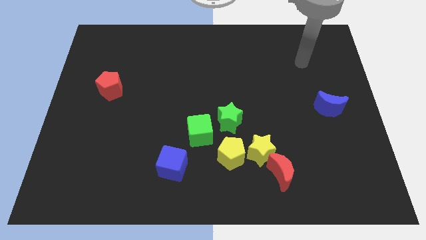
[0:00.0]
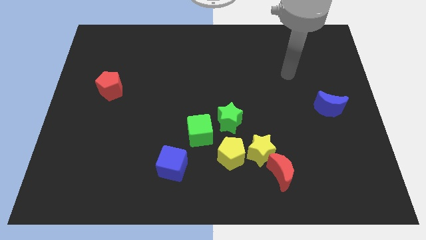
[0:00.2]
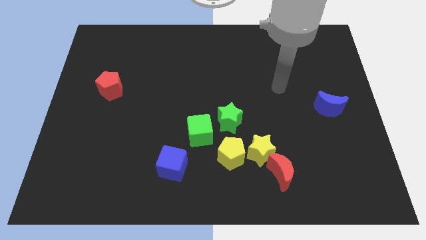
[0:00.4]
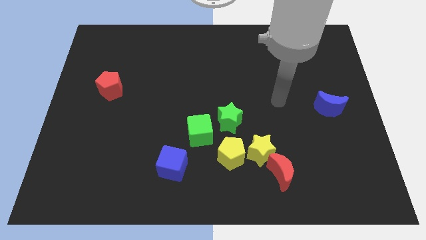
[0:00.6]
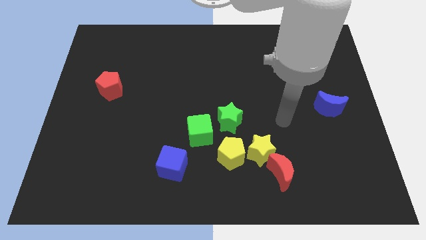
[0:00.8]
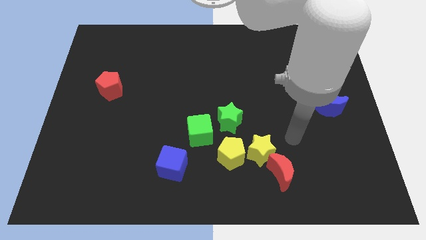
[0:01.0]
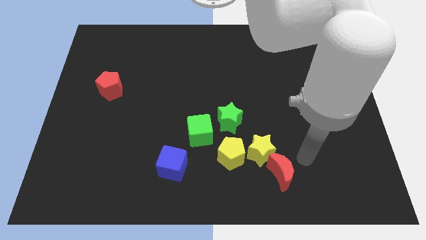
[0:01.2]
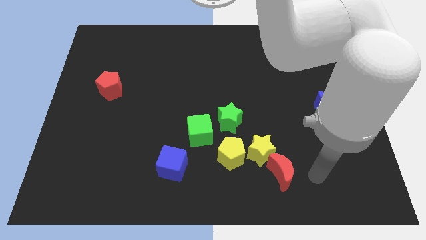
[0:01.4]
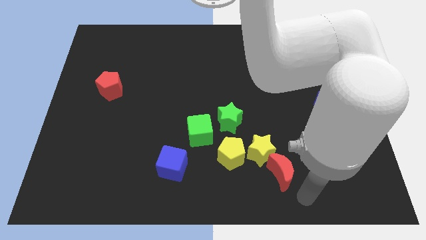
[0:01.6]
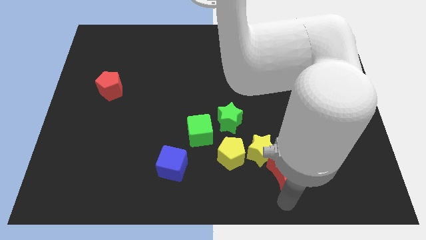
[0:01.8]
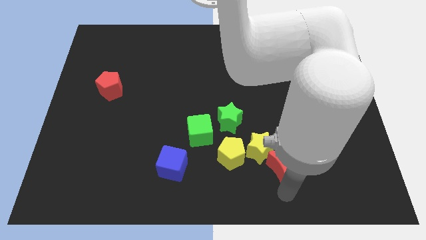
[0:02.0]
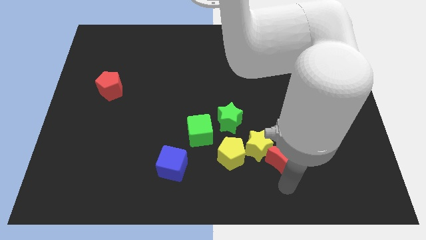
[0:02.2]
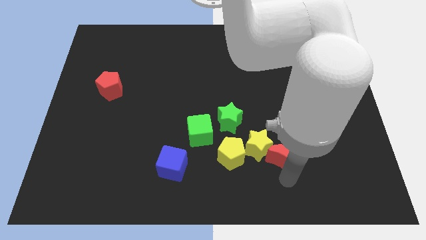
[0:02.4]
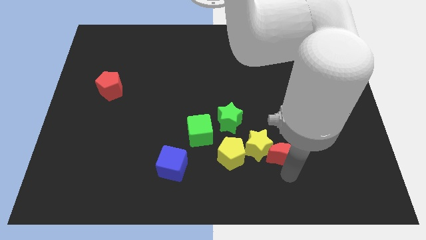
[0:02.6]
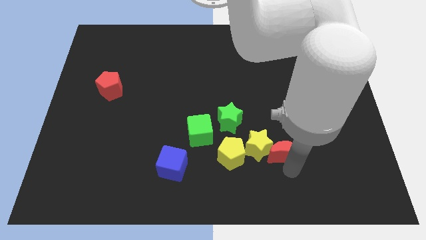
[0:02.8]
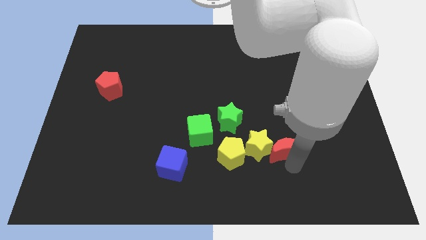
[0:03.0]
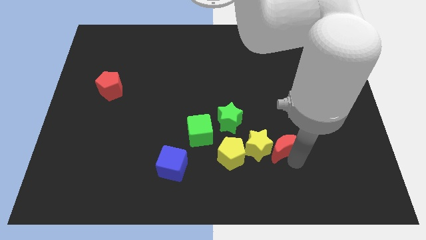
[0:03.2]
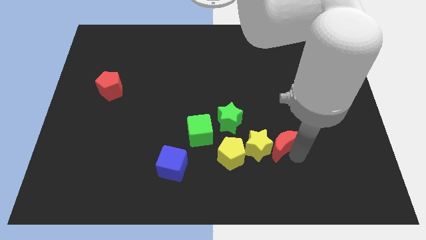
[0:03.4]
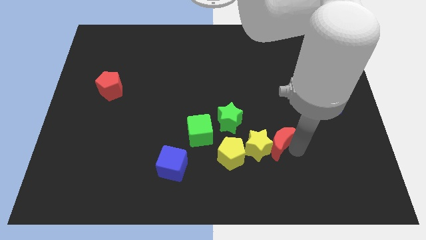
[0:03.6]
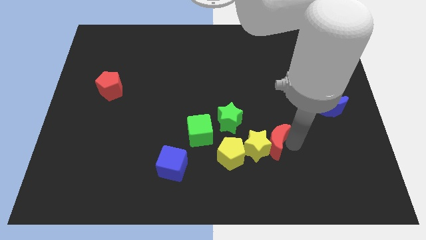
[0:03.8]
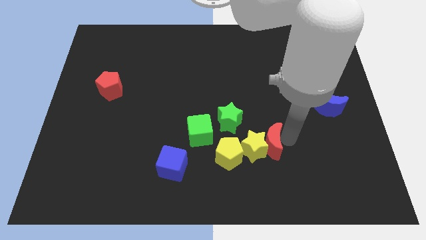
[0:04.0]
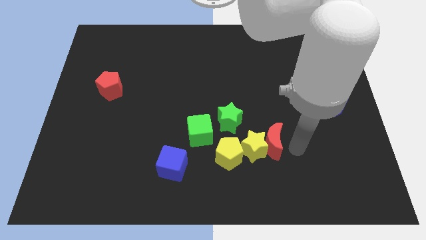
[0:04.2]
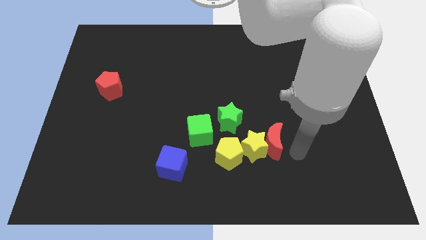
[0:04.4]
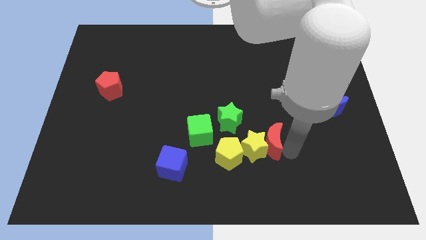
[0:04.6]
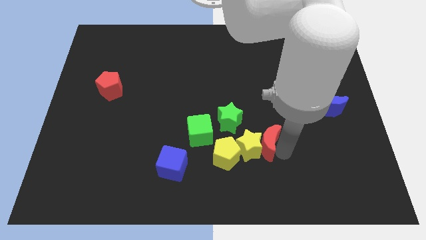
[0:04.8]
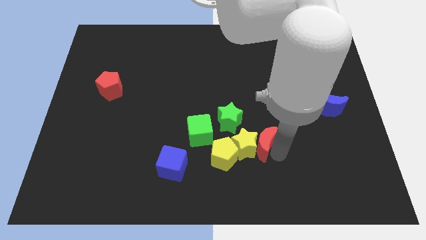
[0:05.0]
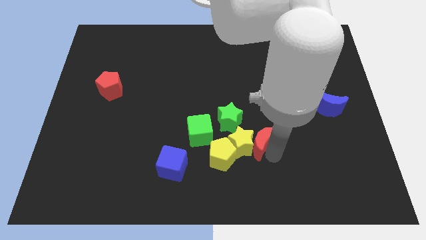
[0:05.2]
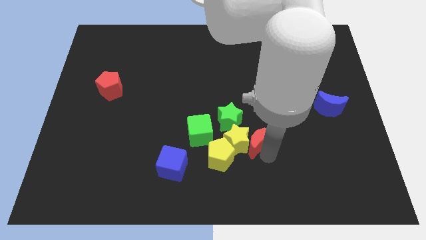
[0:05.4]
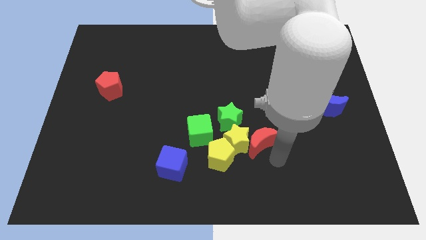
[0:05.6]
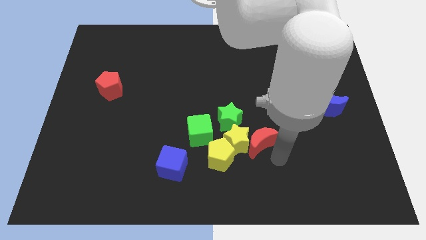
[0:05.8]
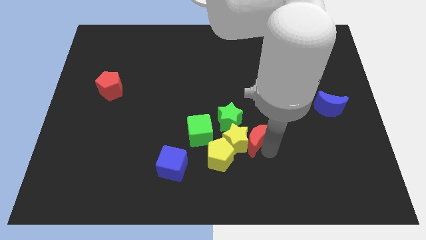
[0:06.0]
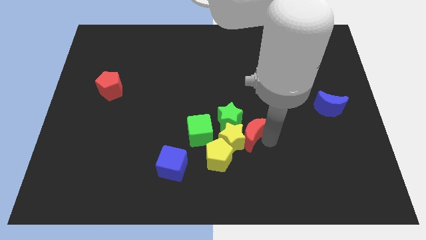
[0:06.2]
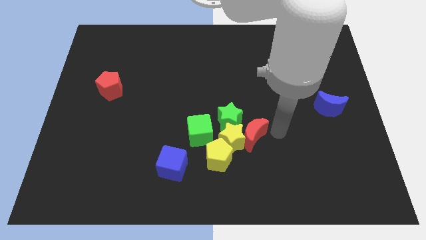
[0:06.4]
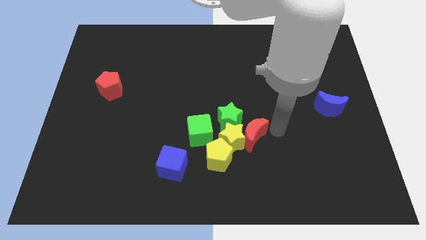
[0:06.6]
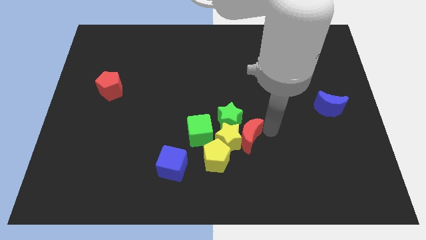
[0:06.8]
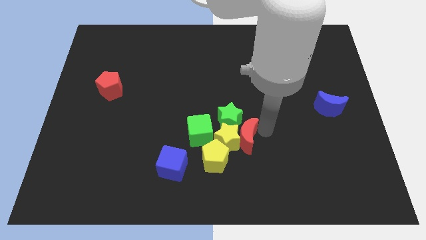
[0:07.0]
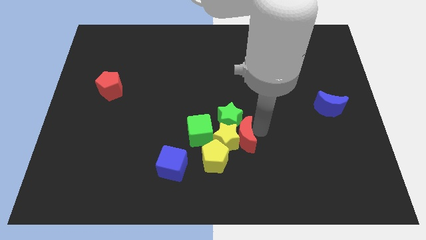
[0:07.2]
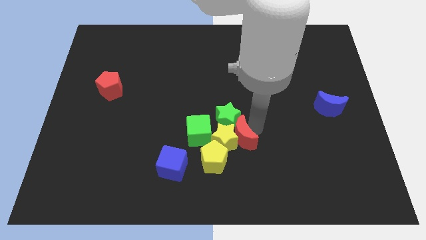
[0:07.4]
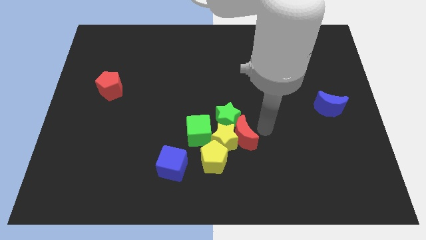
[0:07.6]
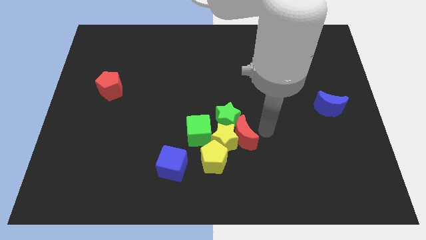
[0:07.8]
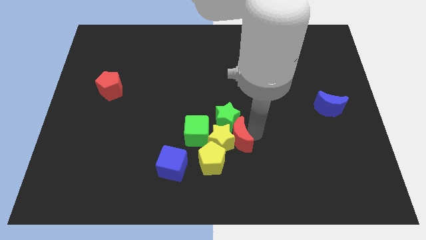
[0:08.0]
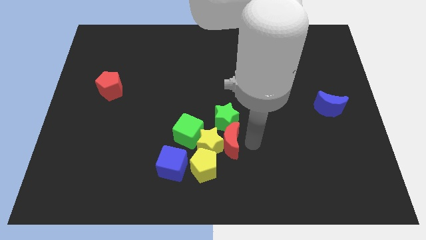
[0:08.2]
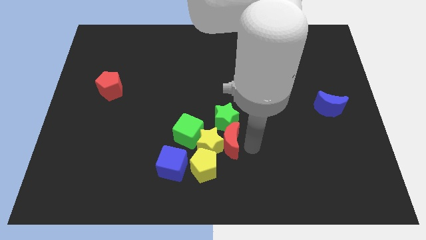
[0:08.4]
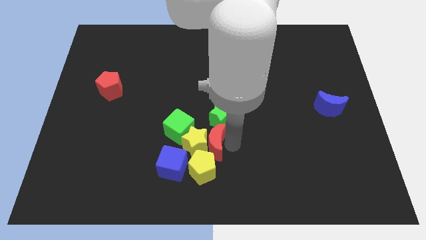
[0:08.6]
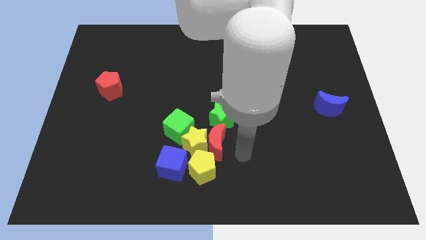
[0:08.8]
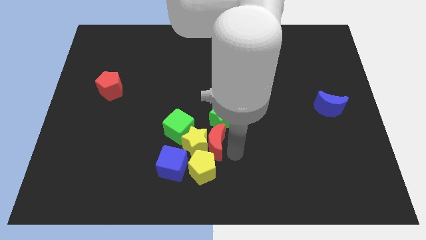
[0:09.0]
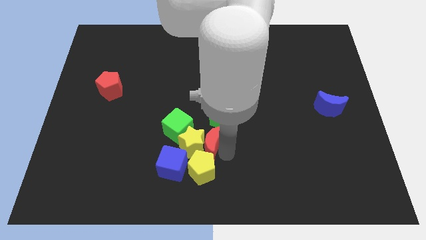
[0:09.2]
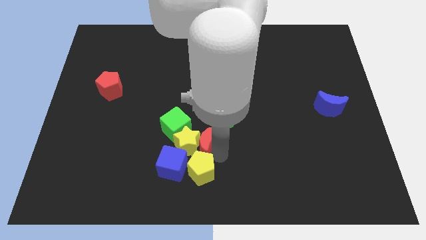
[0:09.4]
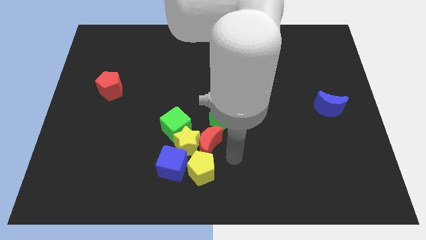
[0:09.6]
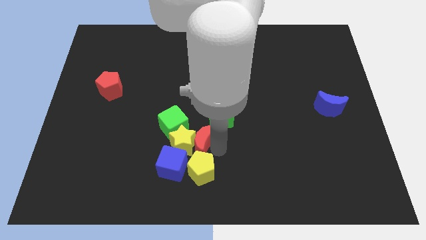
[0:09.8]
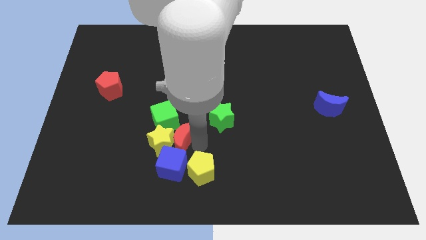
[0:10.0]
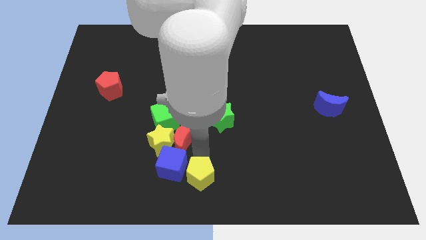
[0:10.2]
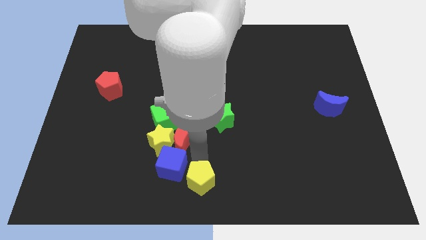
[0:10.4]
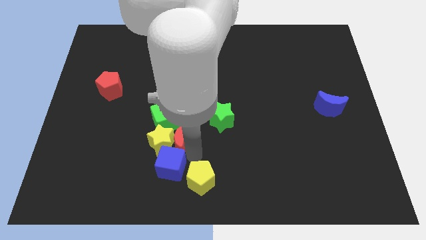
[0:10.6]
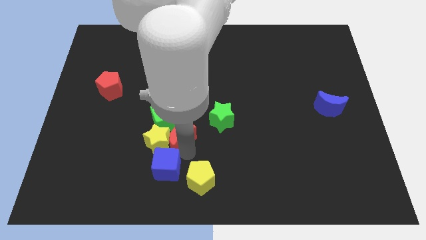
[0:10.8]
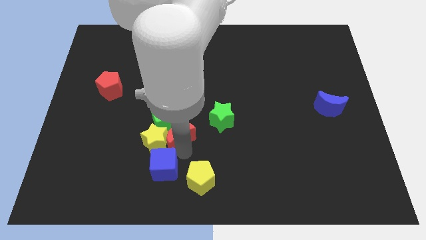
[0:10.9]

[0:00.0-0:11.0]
push the red moon to the green cube

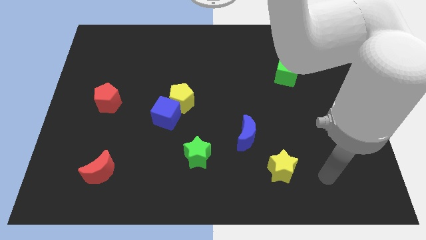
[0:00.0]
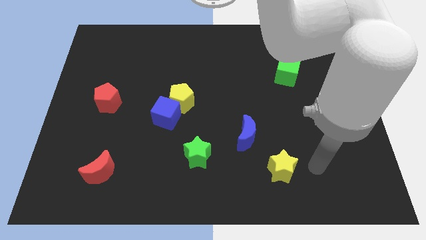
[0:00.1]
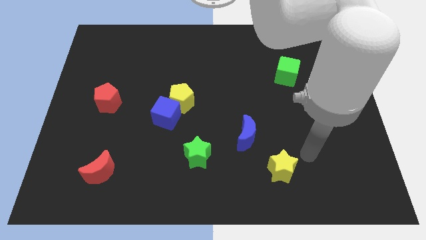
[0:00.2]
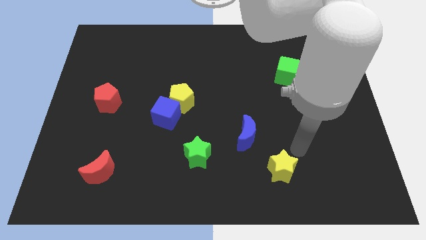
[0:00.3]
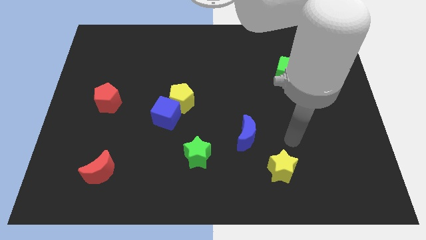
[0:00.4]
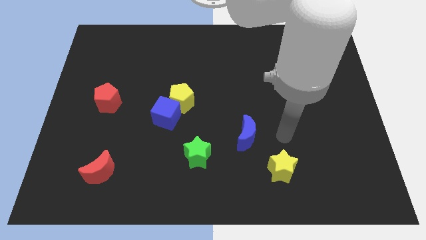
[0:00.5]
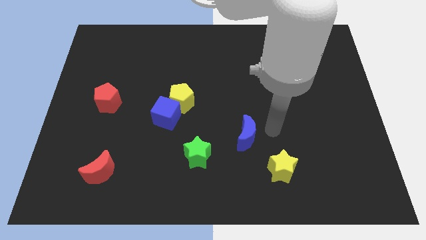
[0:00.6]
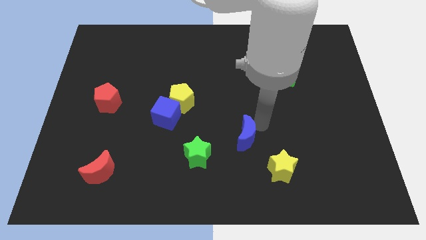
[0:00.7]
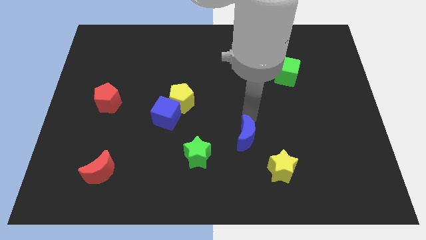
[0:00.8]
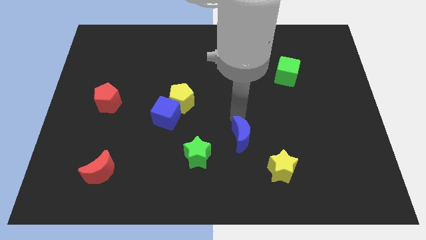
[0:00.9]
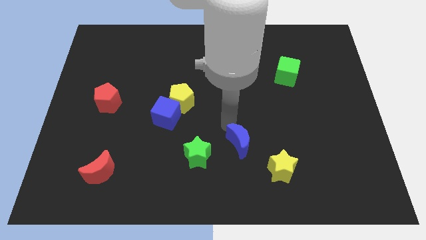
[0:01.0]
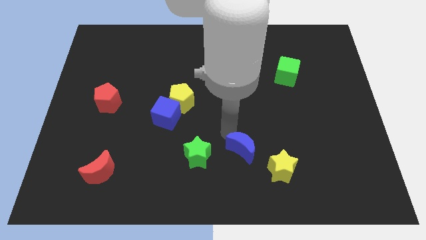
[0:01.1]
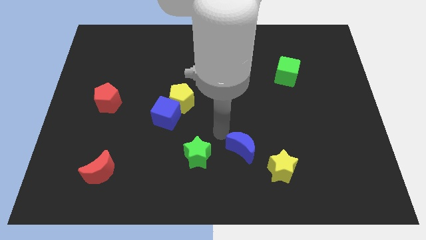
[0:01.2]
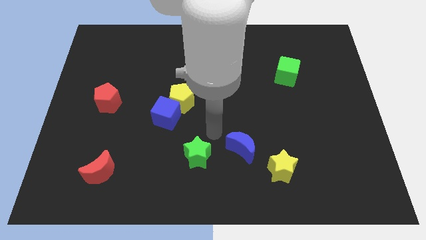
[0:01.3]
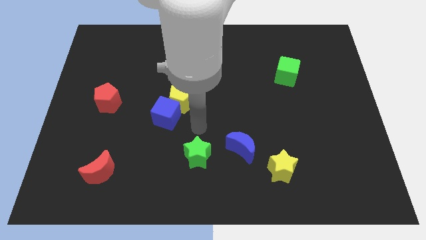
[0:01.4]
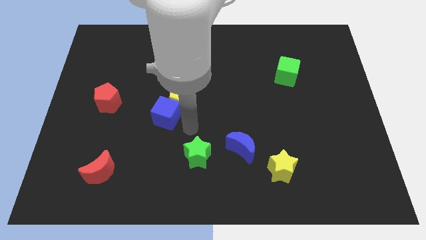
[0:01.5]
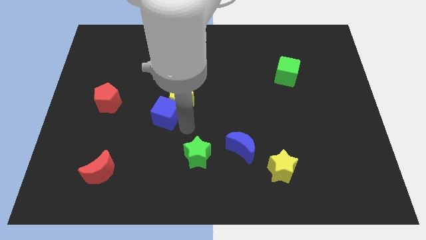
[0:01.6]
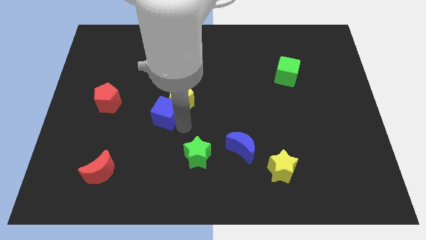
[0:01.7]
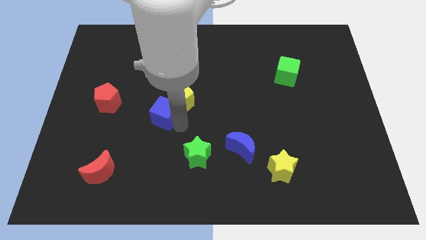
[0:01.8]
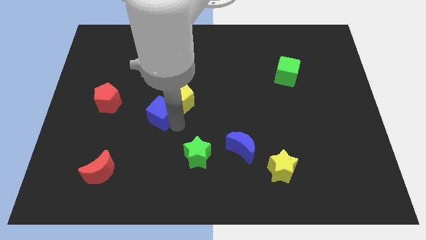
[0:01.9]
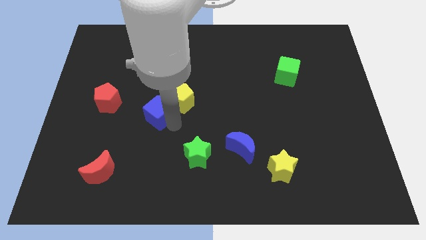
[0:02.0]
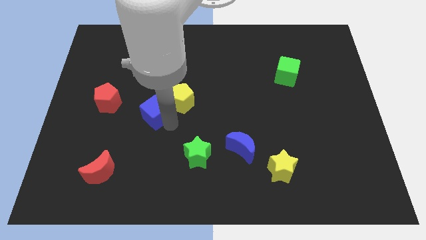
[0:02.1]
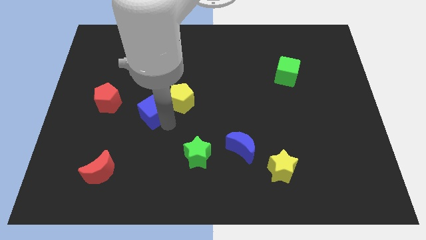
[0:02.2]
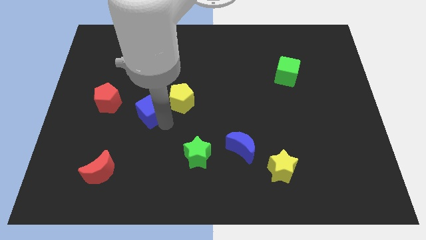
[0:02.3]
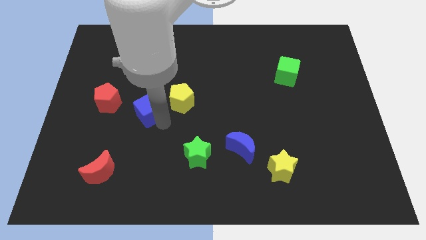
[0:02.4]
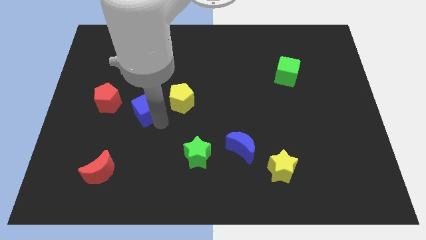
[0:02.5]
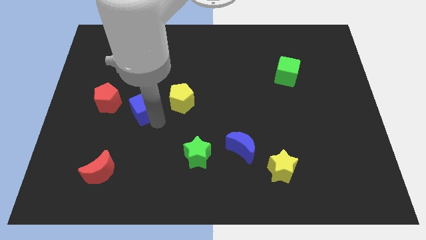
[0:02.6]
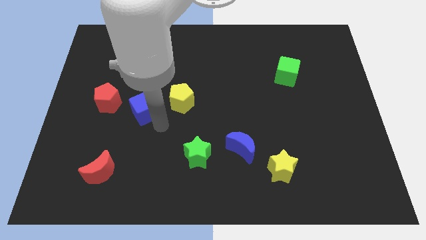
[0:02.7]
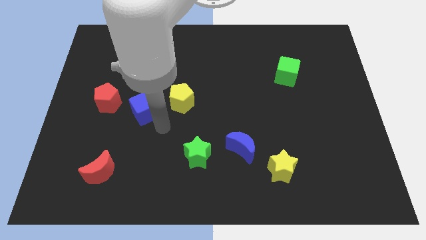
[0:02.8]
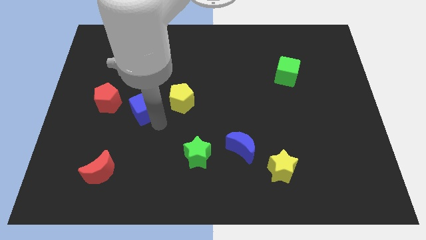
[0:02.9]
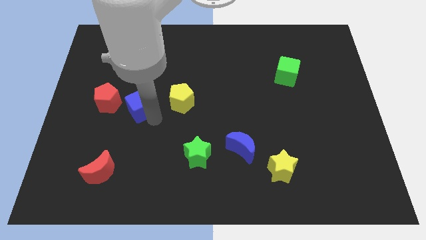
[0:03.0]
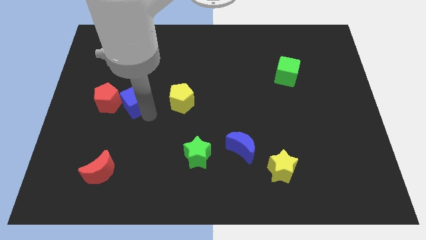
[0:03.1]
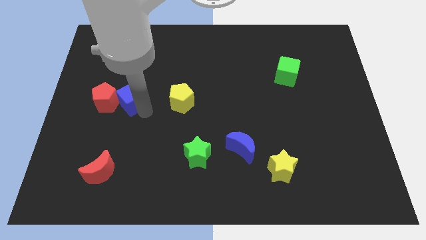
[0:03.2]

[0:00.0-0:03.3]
move the blue cube close to the red pentagon
